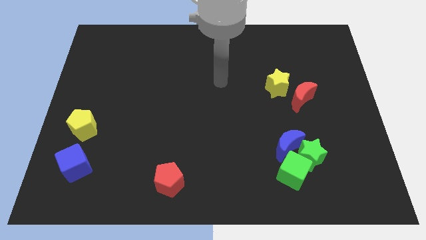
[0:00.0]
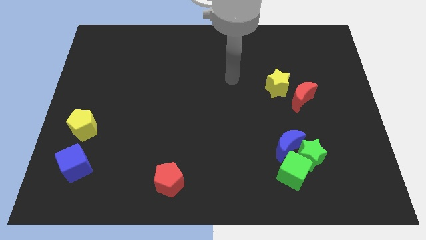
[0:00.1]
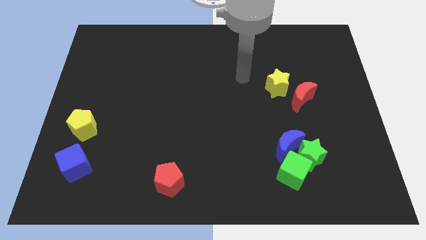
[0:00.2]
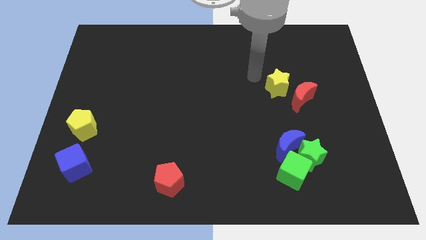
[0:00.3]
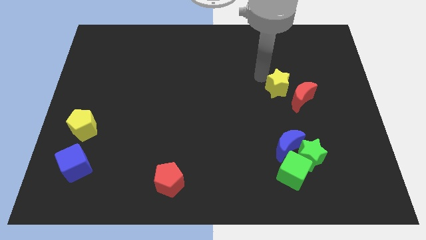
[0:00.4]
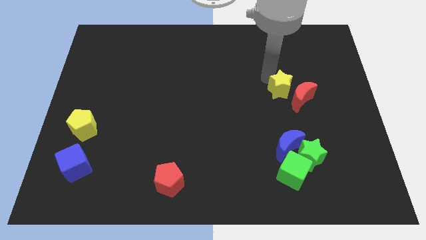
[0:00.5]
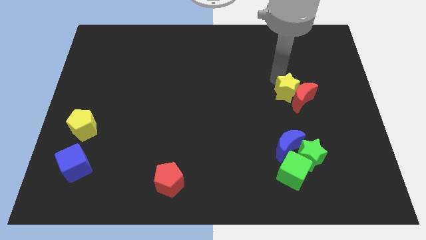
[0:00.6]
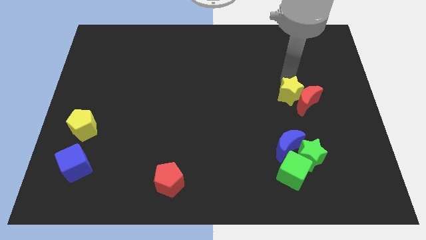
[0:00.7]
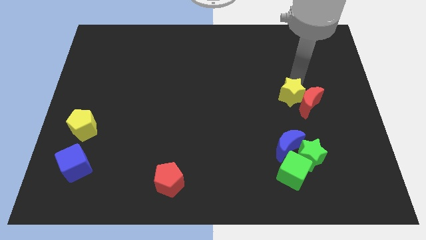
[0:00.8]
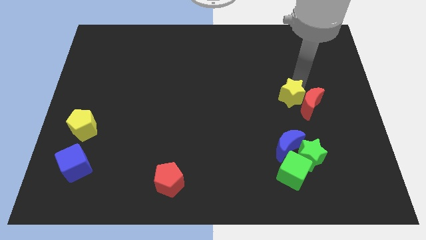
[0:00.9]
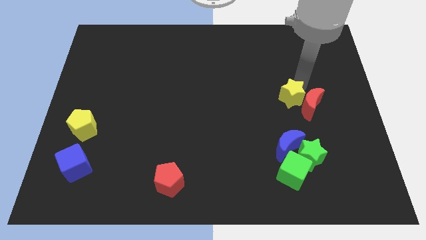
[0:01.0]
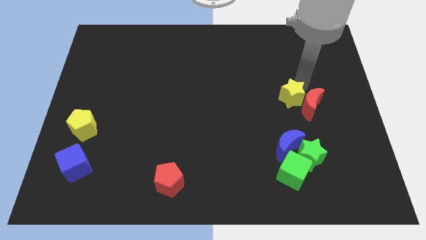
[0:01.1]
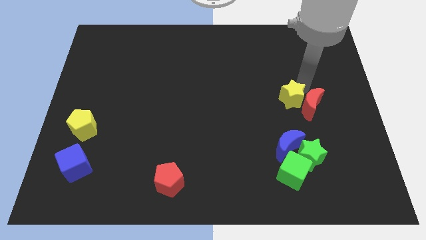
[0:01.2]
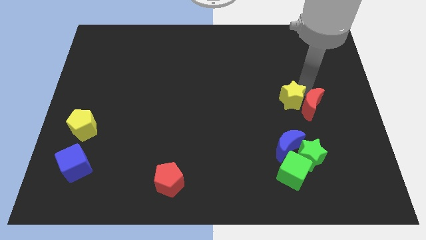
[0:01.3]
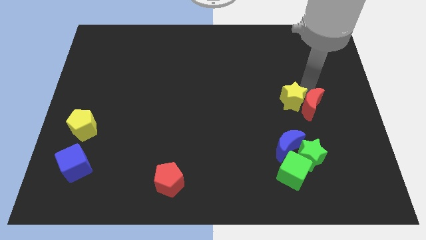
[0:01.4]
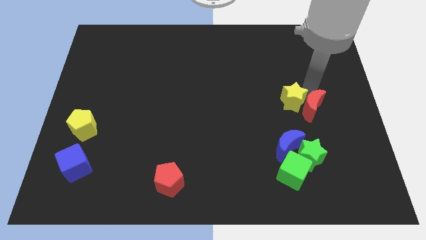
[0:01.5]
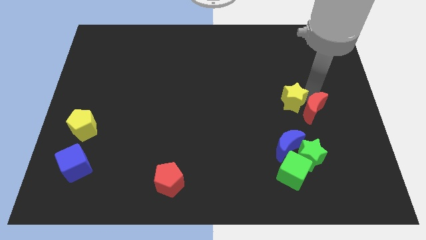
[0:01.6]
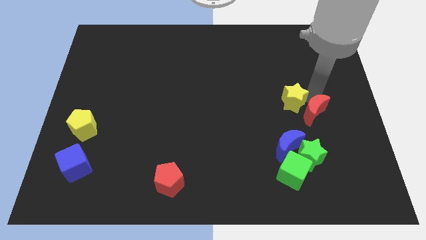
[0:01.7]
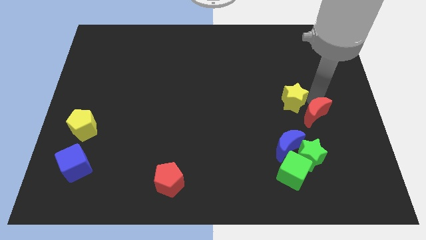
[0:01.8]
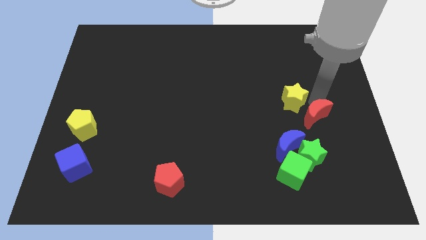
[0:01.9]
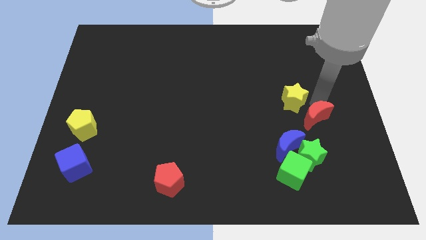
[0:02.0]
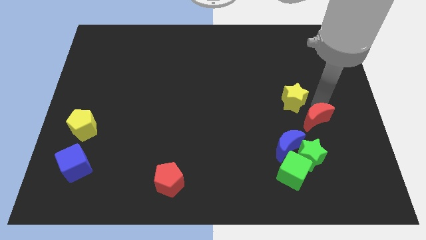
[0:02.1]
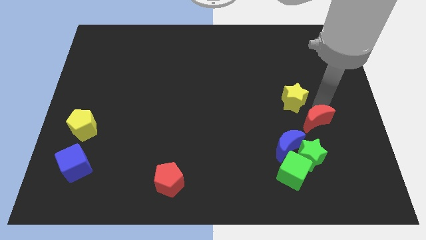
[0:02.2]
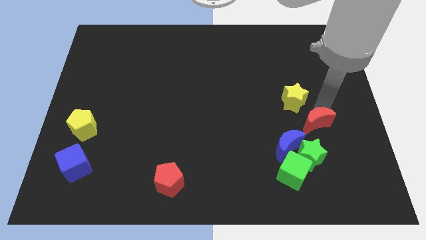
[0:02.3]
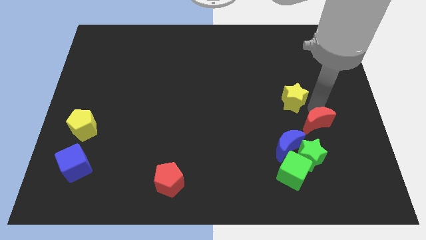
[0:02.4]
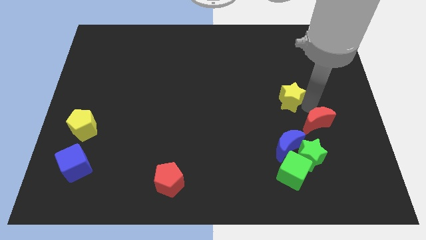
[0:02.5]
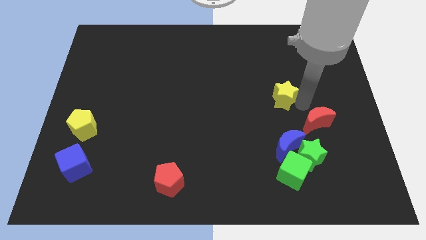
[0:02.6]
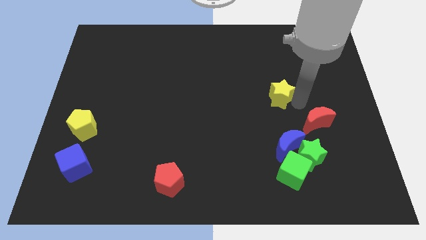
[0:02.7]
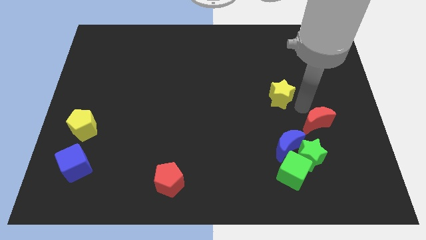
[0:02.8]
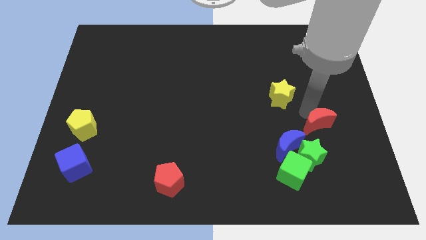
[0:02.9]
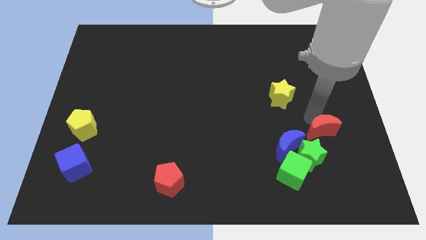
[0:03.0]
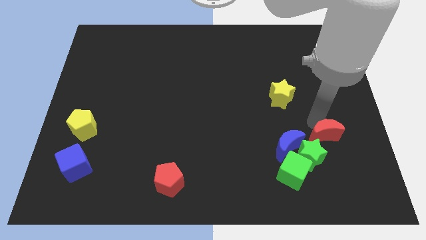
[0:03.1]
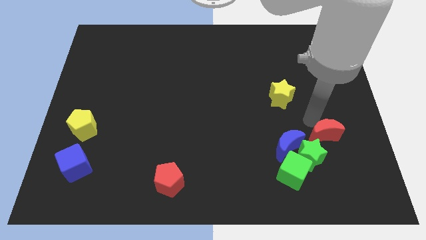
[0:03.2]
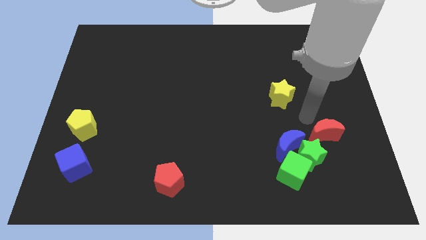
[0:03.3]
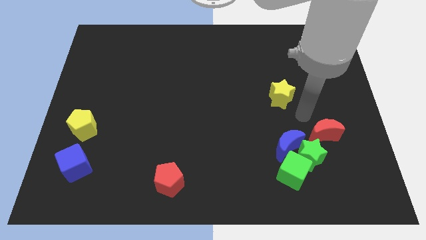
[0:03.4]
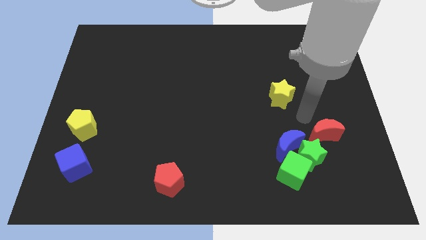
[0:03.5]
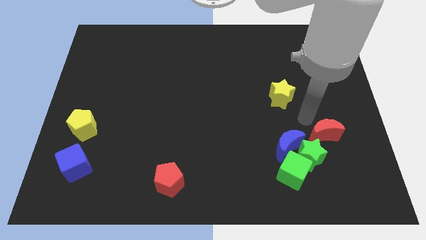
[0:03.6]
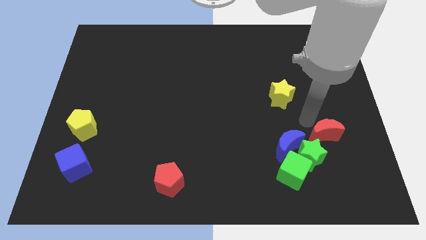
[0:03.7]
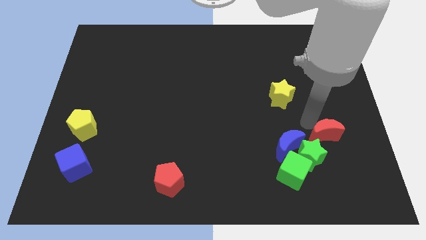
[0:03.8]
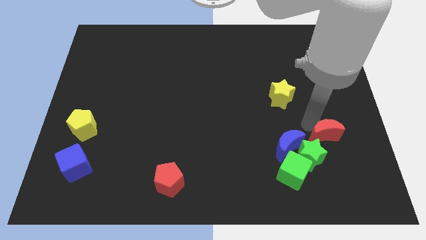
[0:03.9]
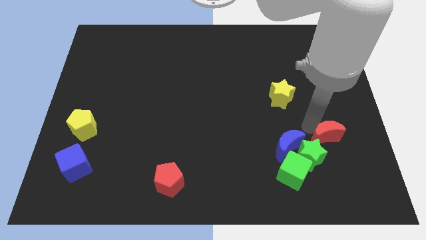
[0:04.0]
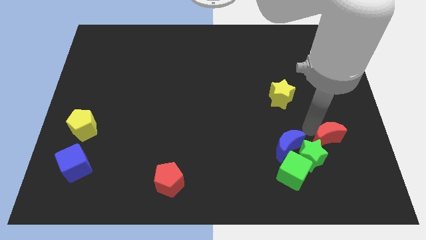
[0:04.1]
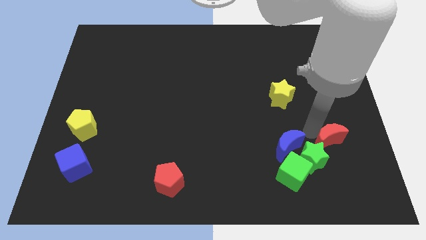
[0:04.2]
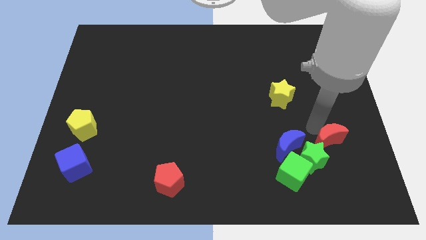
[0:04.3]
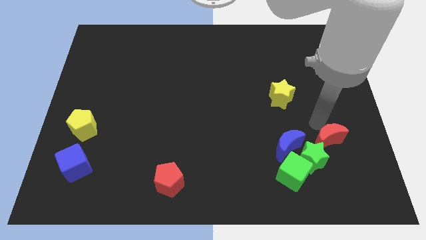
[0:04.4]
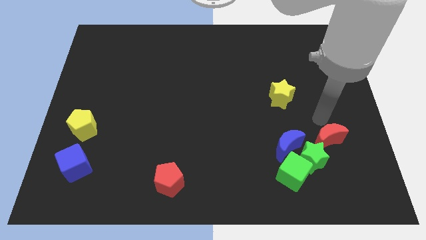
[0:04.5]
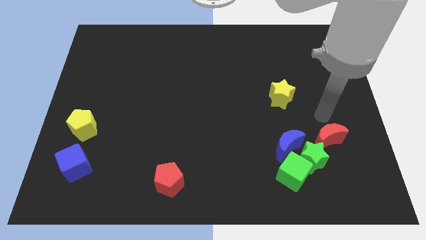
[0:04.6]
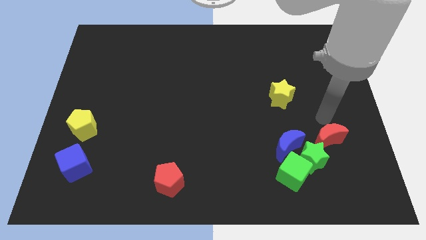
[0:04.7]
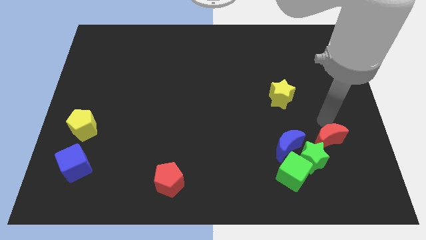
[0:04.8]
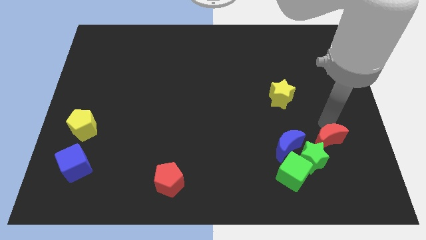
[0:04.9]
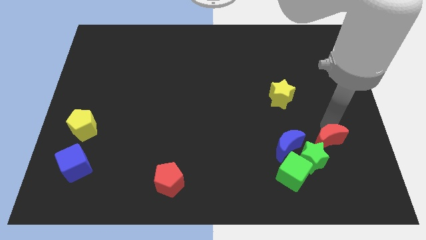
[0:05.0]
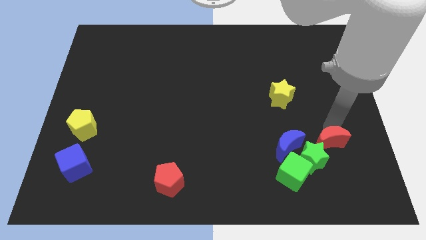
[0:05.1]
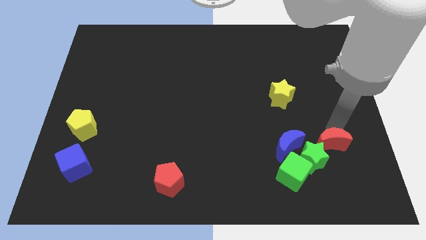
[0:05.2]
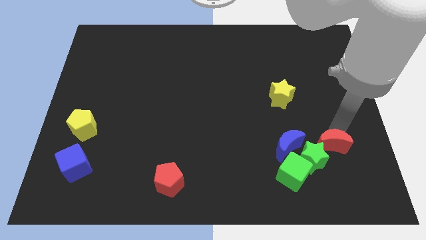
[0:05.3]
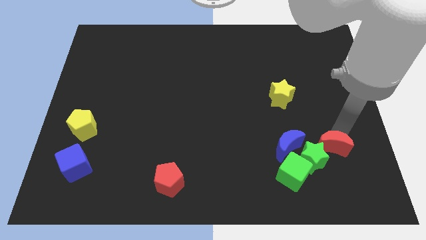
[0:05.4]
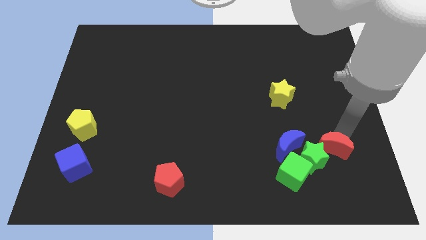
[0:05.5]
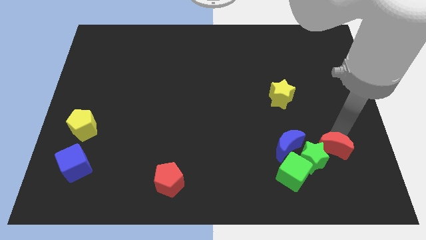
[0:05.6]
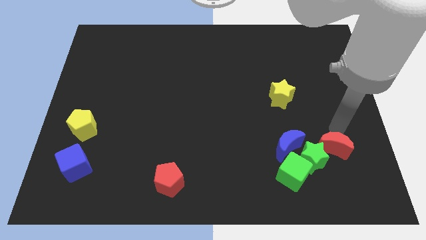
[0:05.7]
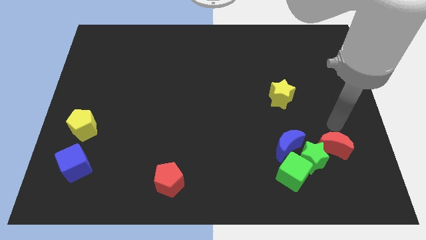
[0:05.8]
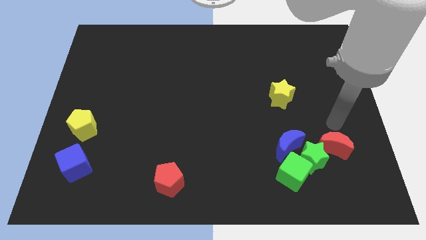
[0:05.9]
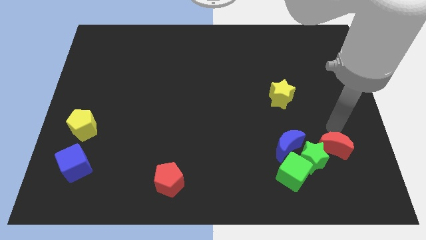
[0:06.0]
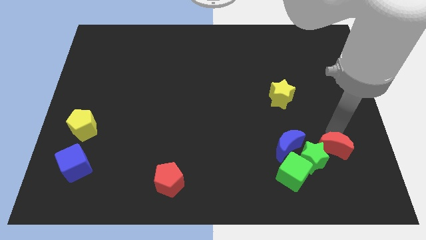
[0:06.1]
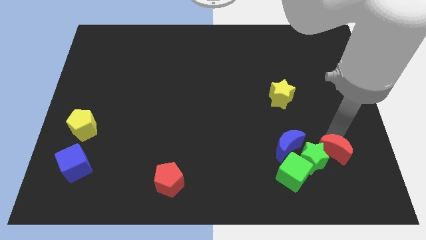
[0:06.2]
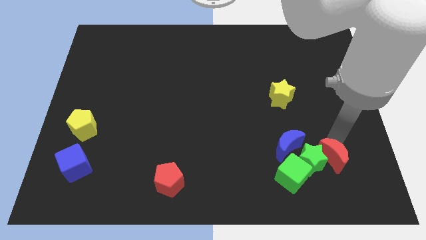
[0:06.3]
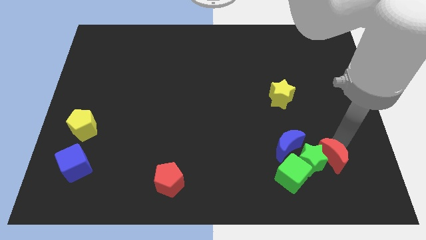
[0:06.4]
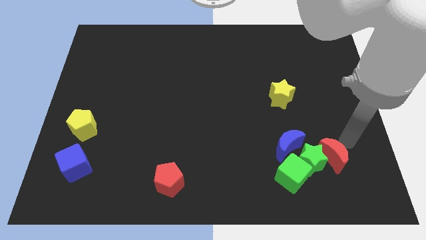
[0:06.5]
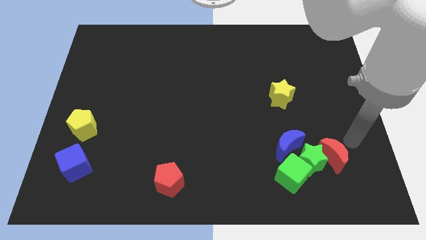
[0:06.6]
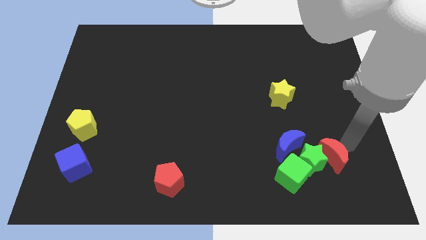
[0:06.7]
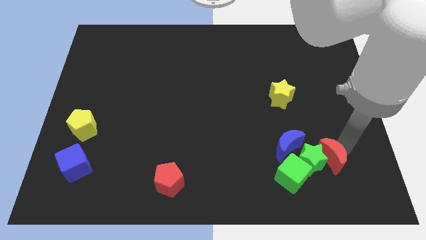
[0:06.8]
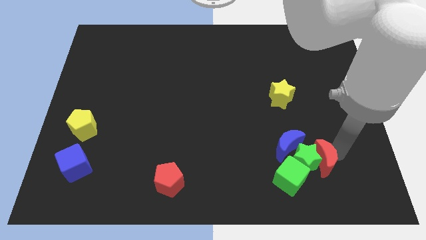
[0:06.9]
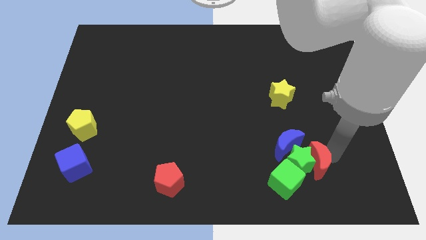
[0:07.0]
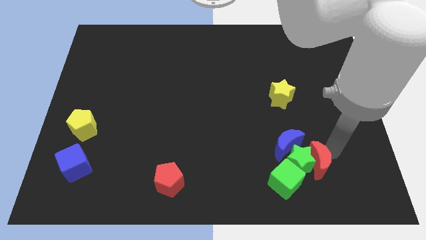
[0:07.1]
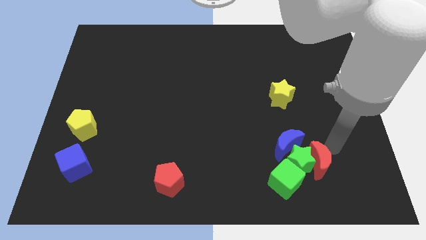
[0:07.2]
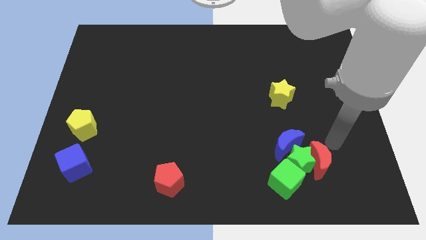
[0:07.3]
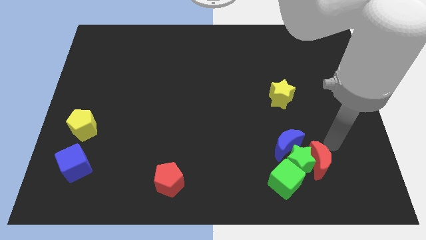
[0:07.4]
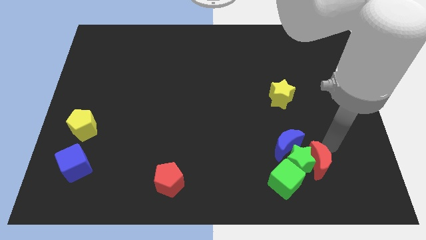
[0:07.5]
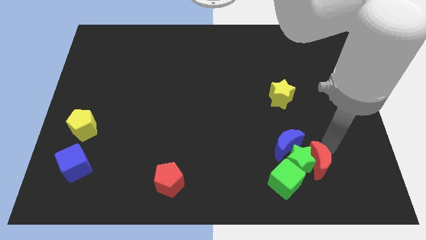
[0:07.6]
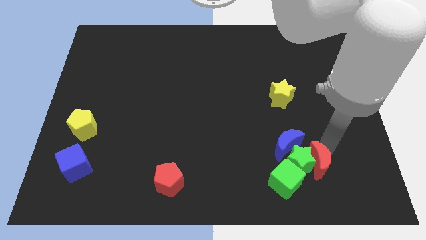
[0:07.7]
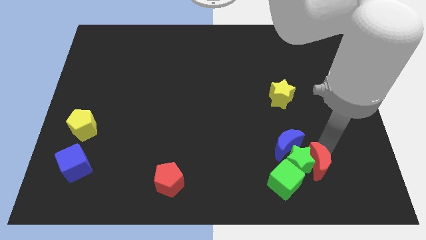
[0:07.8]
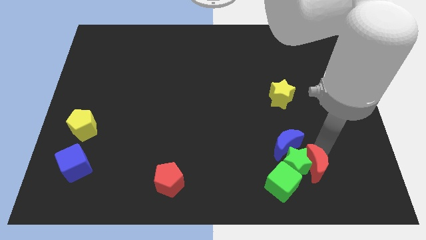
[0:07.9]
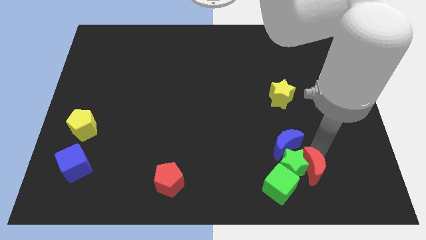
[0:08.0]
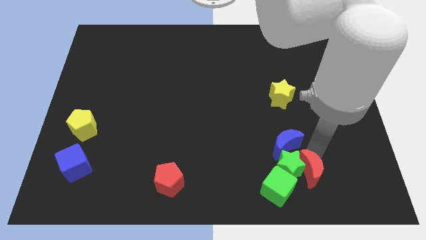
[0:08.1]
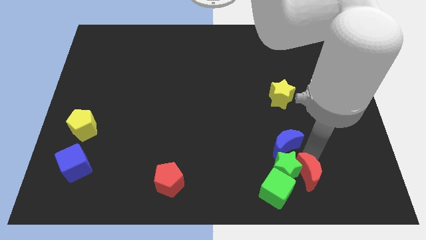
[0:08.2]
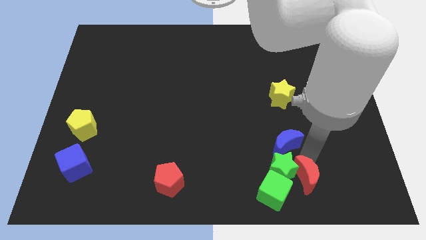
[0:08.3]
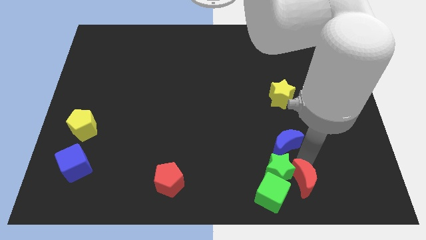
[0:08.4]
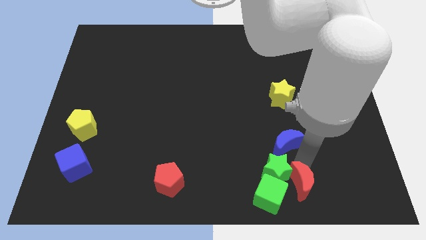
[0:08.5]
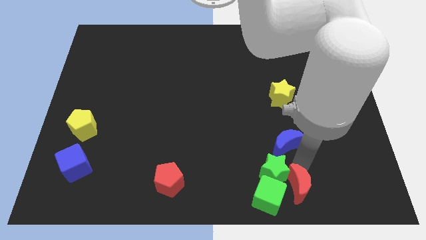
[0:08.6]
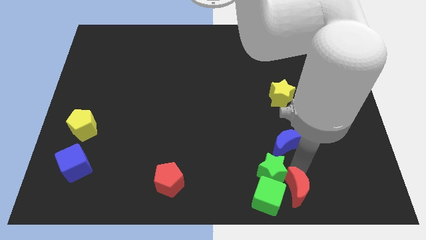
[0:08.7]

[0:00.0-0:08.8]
put the red moon next to the green cube
